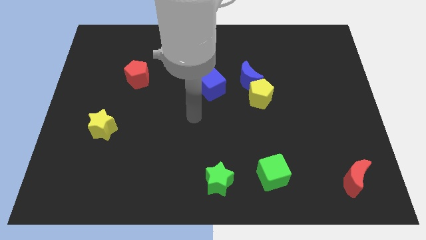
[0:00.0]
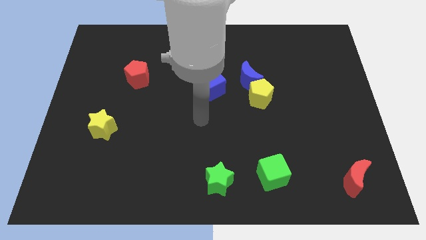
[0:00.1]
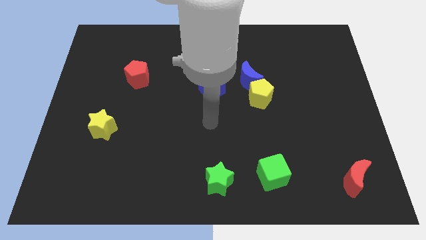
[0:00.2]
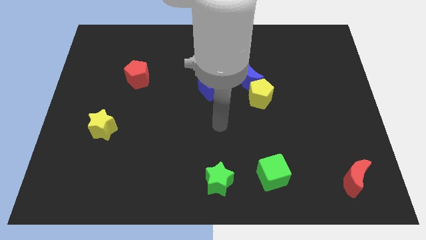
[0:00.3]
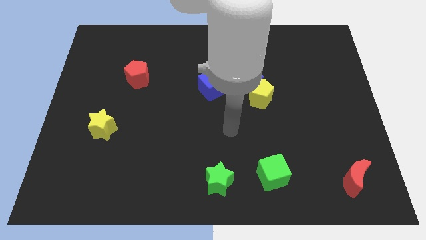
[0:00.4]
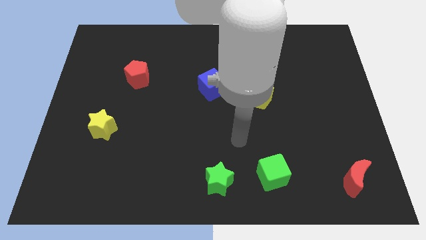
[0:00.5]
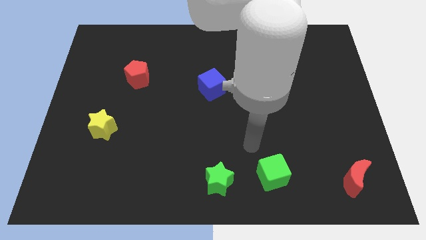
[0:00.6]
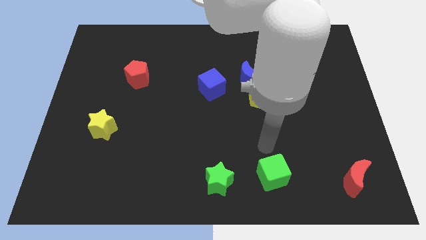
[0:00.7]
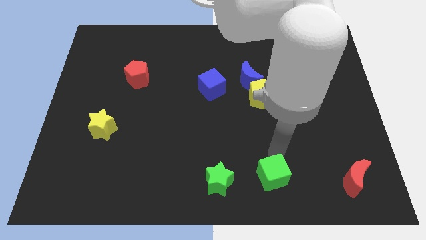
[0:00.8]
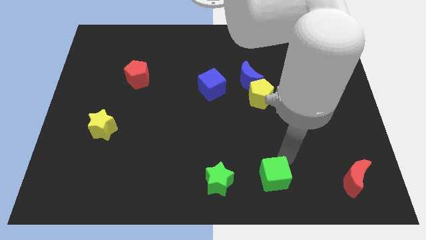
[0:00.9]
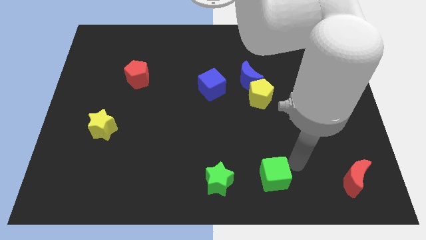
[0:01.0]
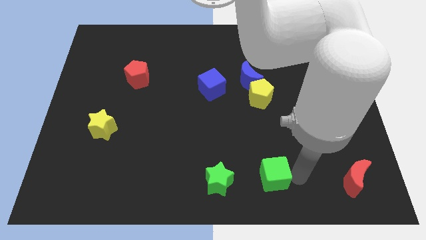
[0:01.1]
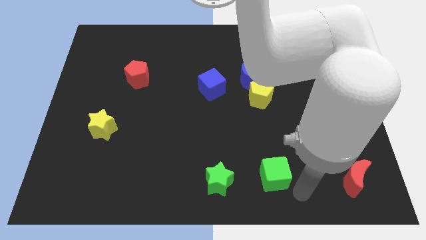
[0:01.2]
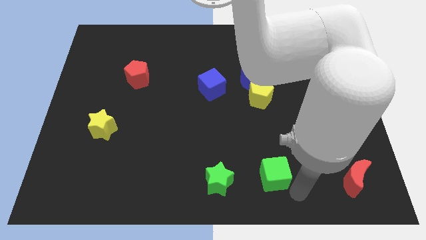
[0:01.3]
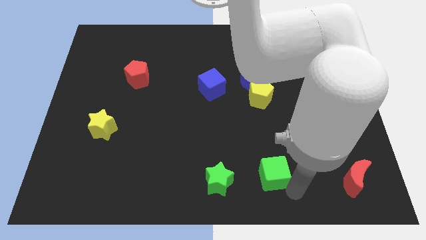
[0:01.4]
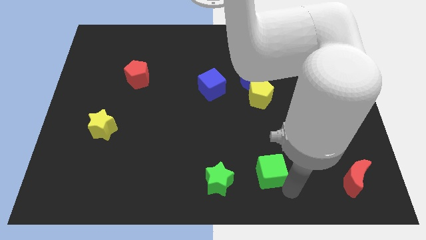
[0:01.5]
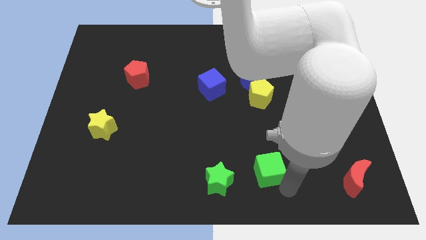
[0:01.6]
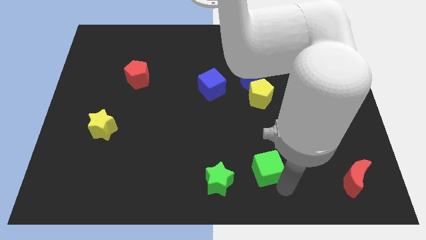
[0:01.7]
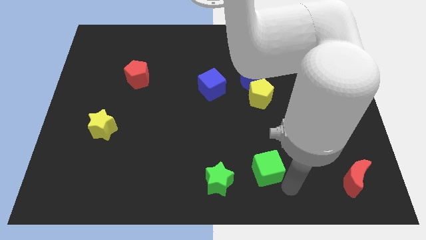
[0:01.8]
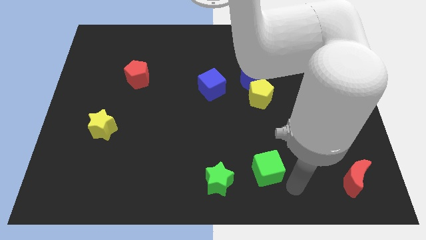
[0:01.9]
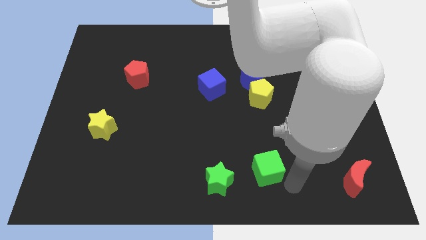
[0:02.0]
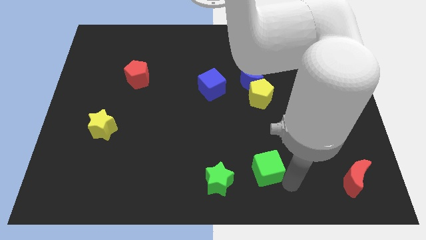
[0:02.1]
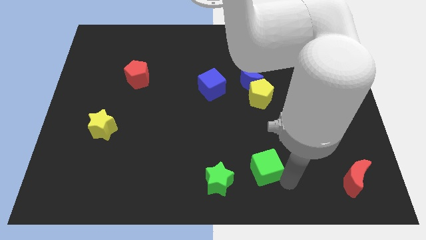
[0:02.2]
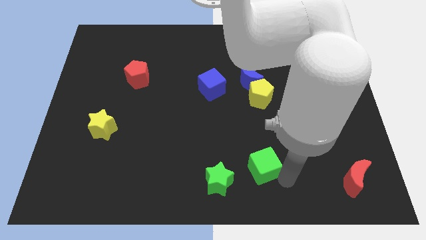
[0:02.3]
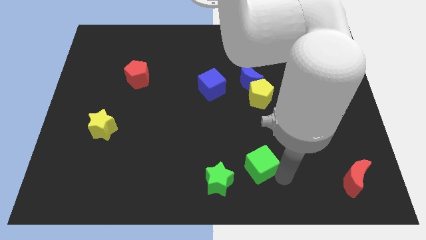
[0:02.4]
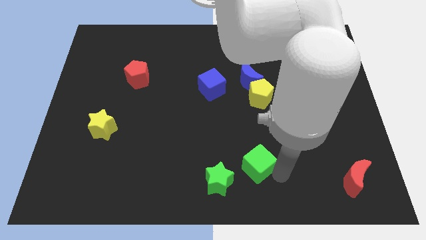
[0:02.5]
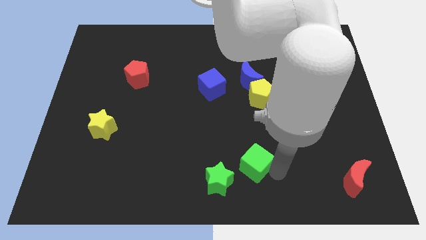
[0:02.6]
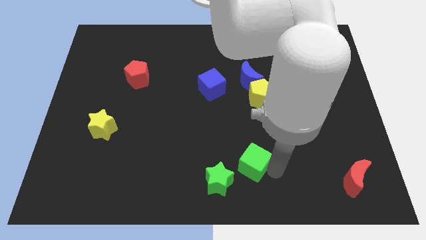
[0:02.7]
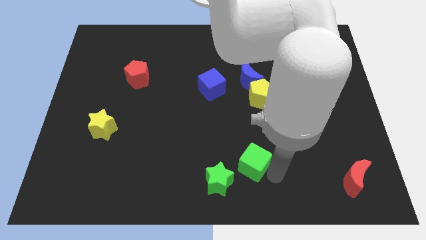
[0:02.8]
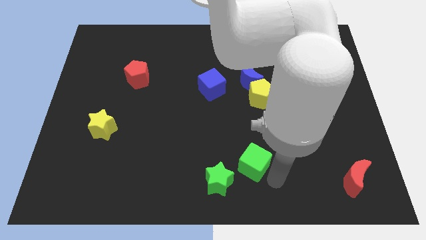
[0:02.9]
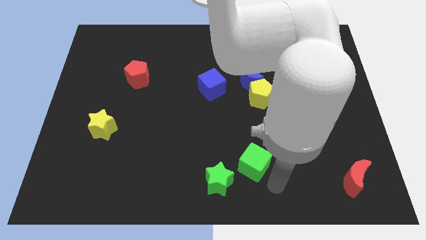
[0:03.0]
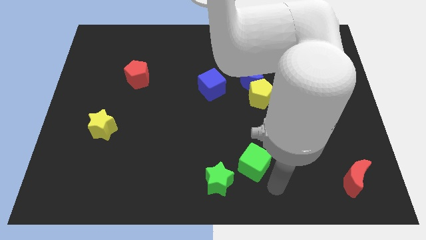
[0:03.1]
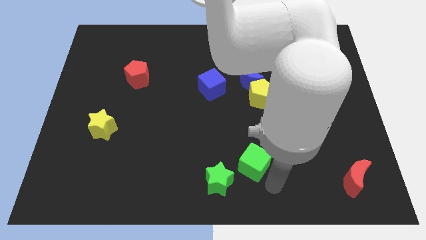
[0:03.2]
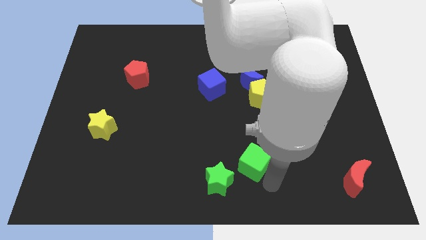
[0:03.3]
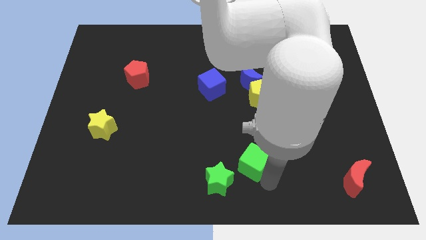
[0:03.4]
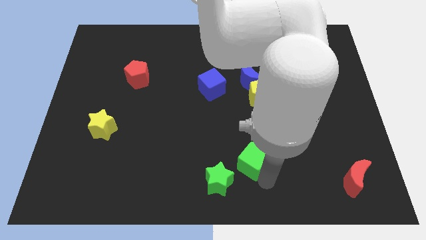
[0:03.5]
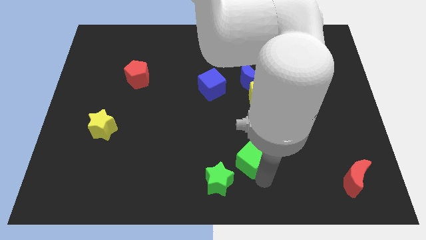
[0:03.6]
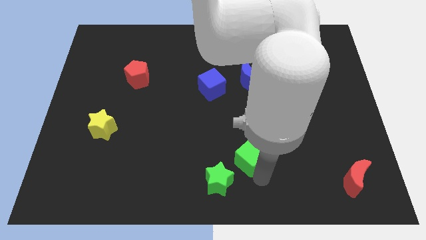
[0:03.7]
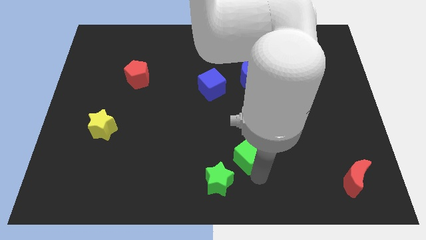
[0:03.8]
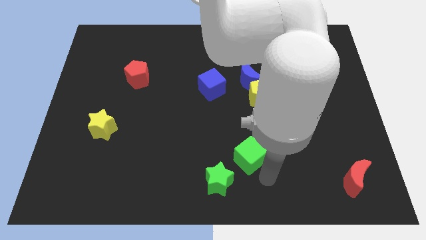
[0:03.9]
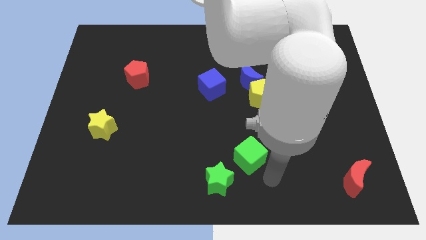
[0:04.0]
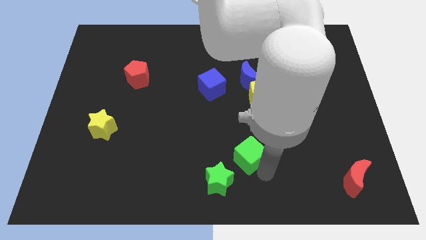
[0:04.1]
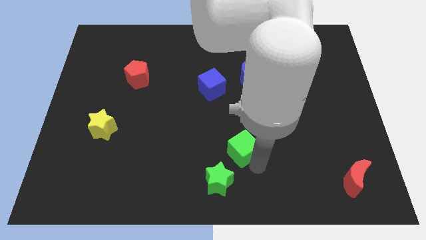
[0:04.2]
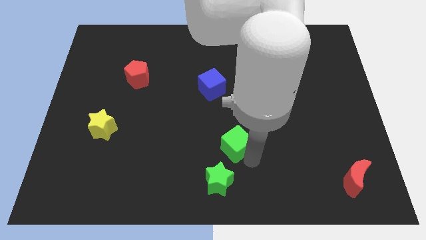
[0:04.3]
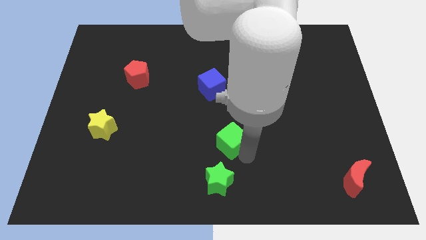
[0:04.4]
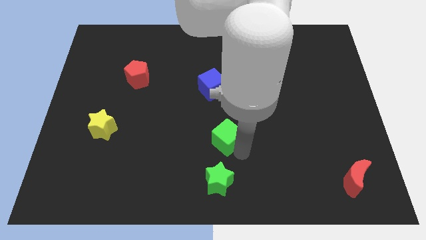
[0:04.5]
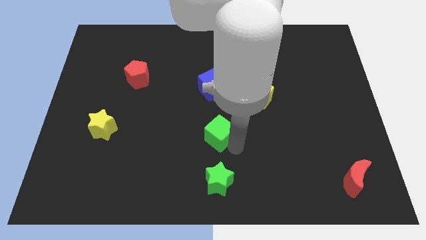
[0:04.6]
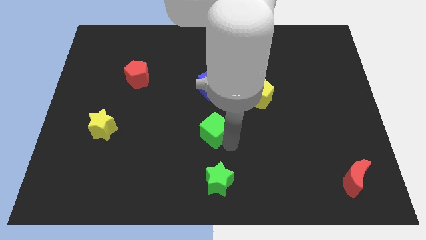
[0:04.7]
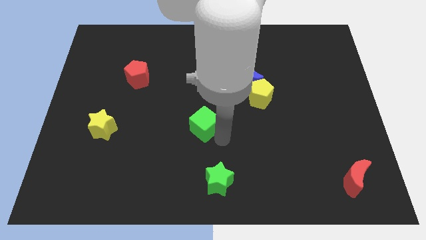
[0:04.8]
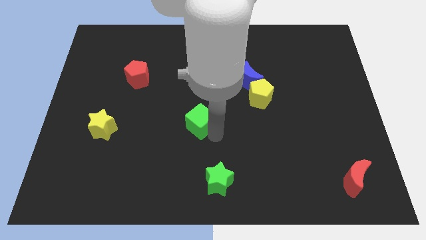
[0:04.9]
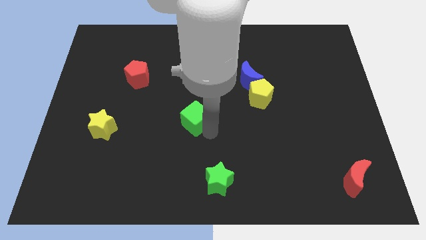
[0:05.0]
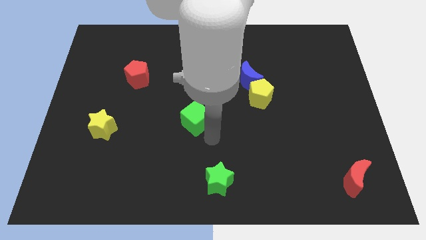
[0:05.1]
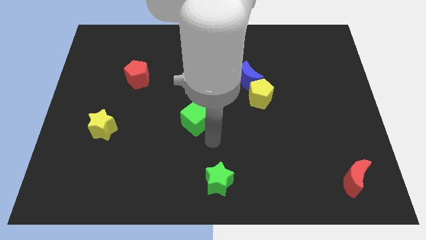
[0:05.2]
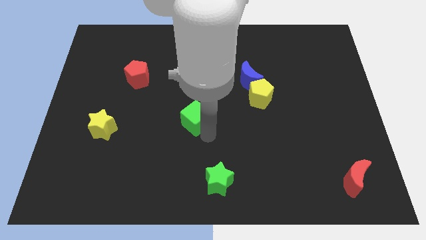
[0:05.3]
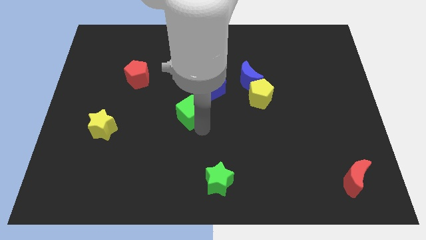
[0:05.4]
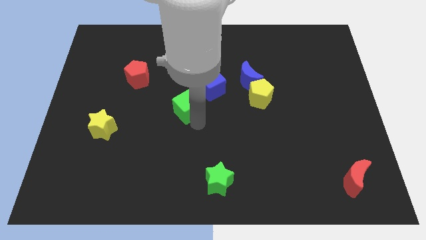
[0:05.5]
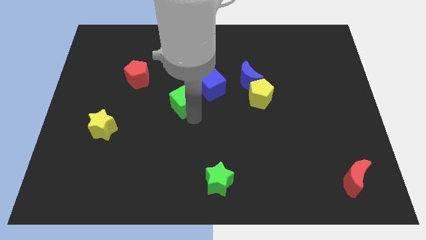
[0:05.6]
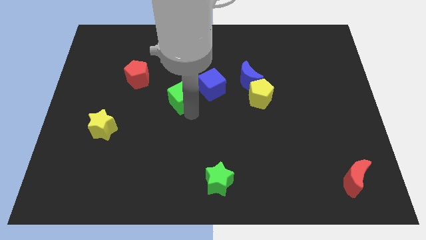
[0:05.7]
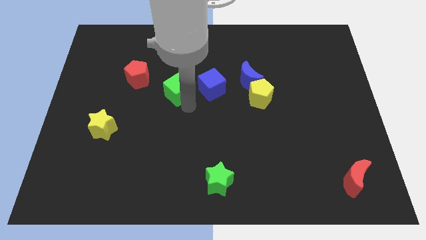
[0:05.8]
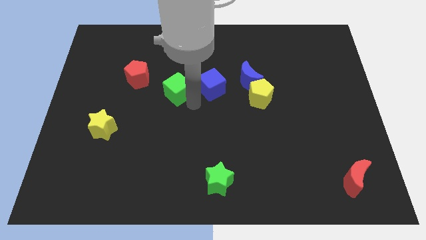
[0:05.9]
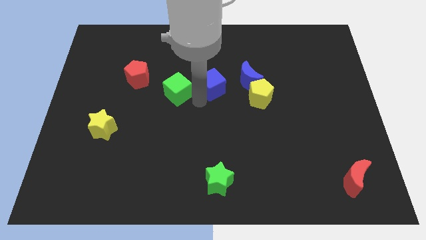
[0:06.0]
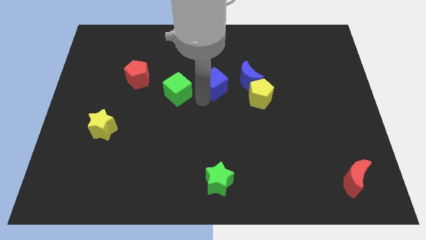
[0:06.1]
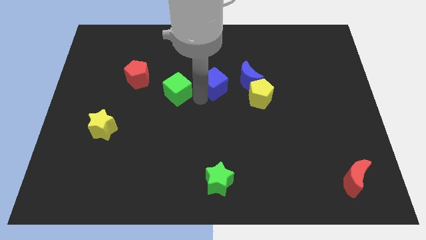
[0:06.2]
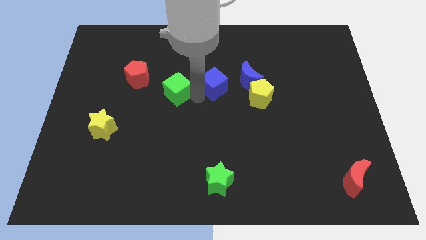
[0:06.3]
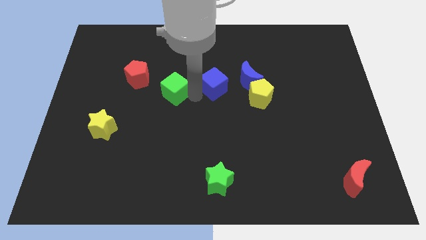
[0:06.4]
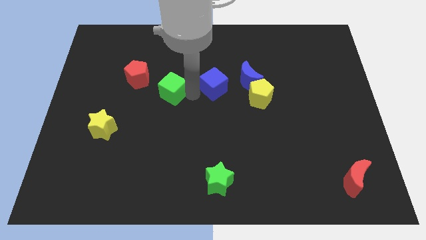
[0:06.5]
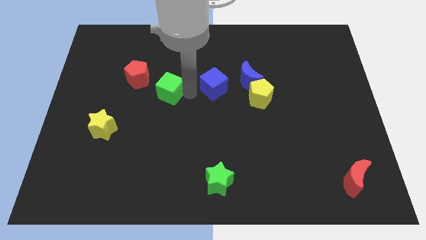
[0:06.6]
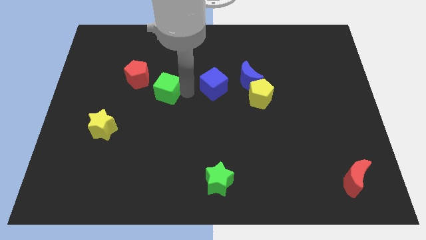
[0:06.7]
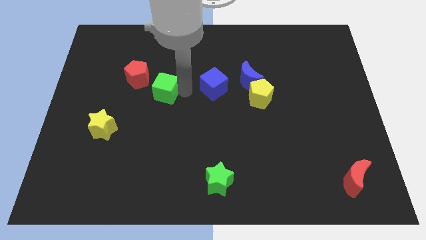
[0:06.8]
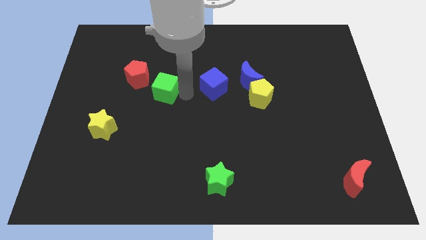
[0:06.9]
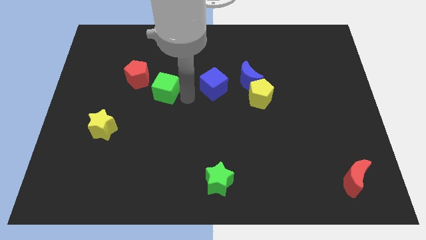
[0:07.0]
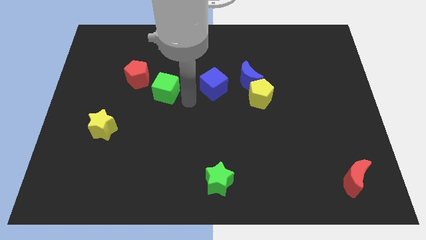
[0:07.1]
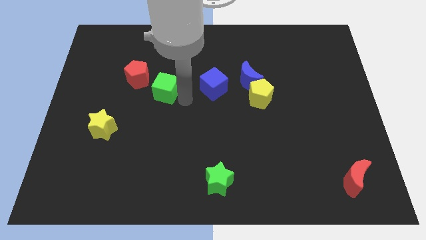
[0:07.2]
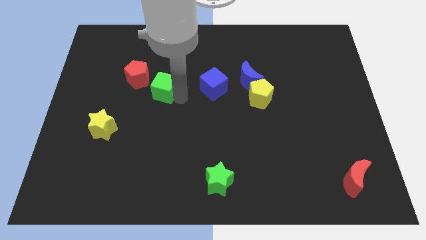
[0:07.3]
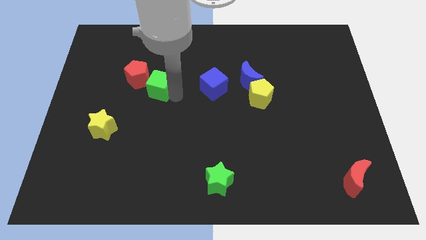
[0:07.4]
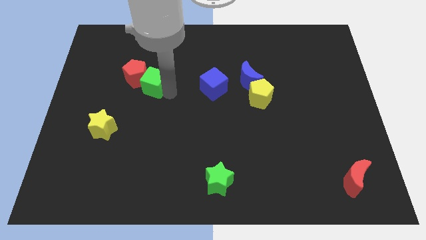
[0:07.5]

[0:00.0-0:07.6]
put the green cube close to the red pentagon
